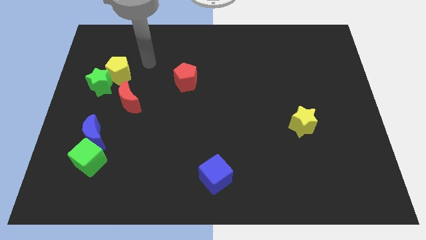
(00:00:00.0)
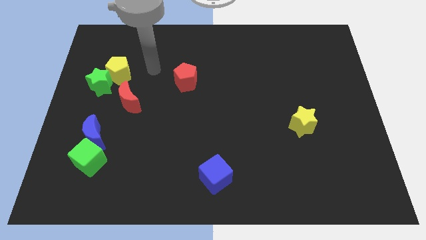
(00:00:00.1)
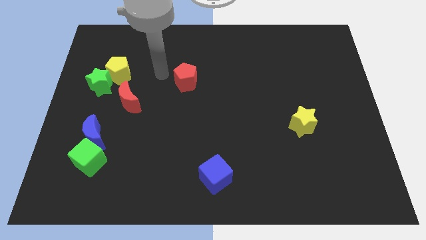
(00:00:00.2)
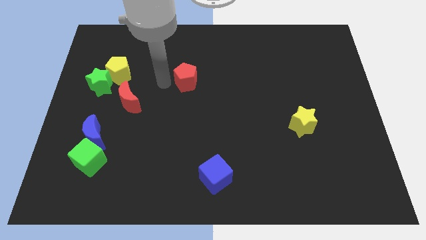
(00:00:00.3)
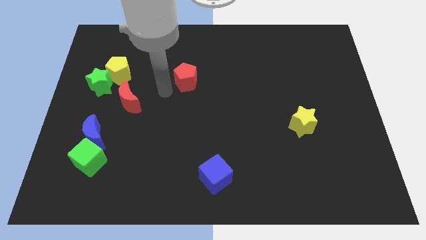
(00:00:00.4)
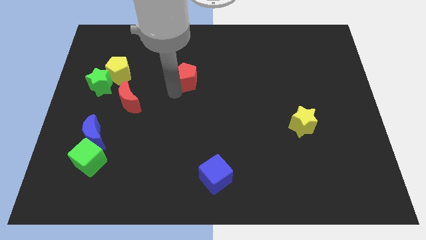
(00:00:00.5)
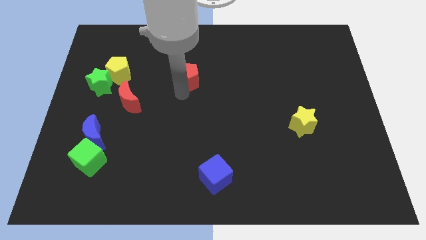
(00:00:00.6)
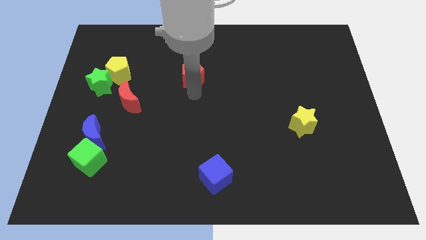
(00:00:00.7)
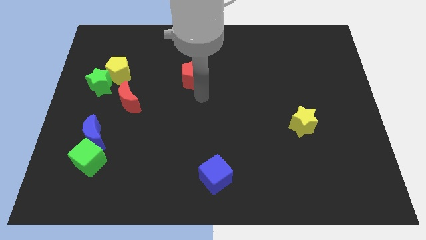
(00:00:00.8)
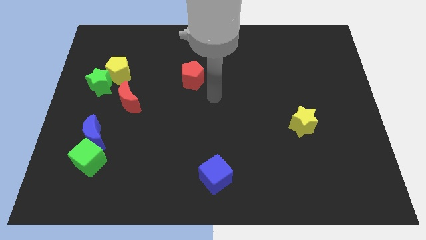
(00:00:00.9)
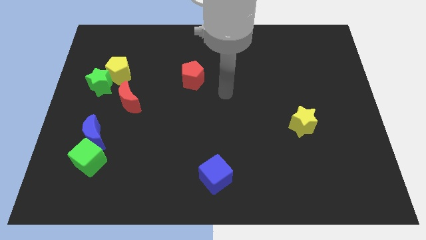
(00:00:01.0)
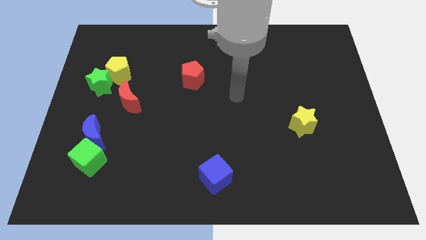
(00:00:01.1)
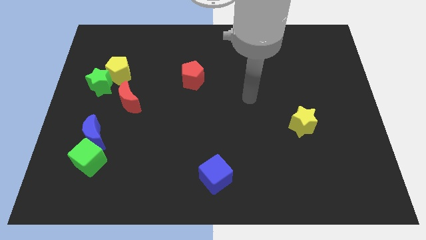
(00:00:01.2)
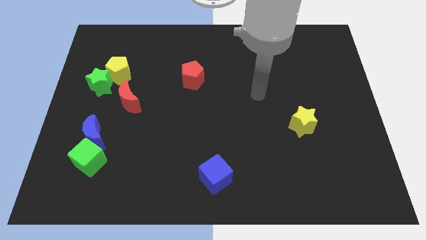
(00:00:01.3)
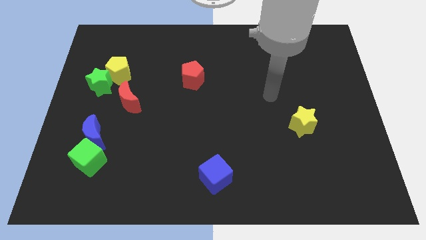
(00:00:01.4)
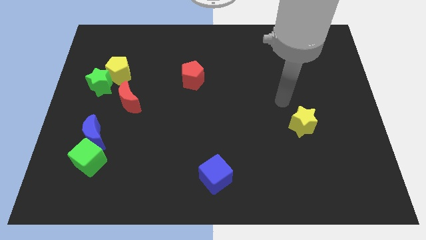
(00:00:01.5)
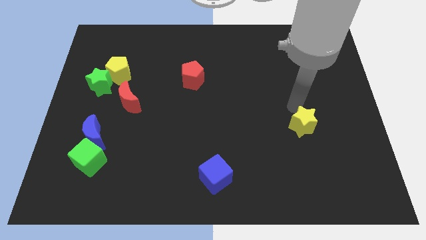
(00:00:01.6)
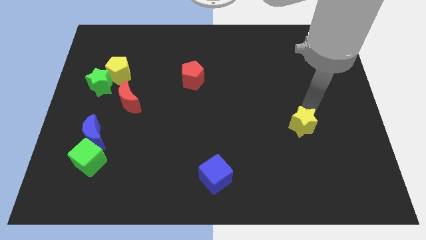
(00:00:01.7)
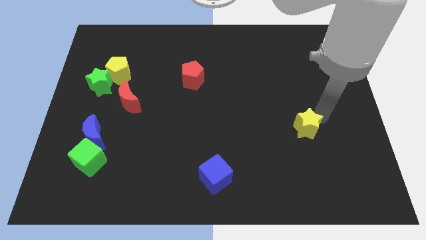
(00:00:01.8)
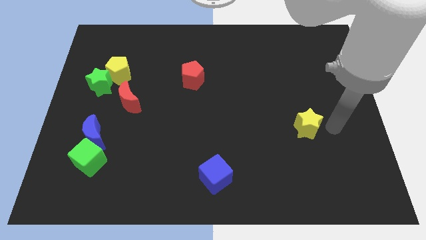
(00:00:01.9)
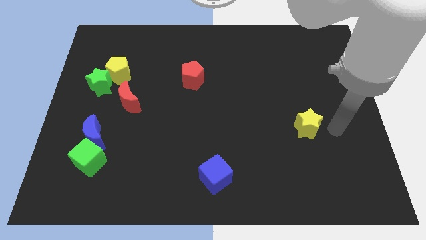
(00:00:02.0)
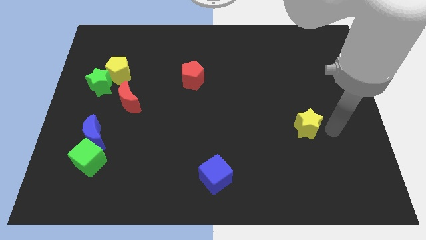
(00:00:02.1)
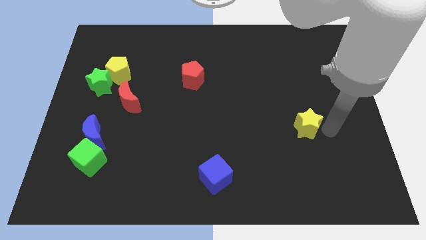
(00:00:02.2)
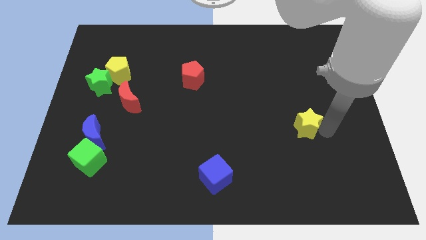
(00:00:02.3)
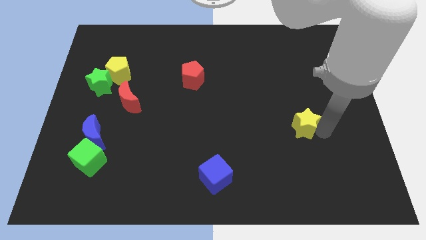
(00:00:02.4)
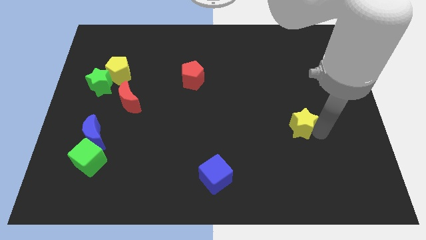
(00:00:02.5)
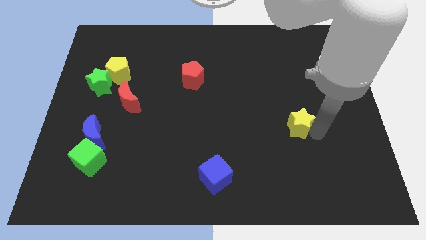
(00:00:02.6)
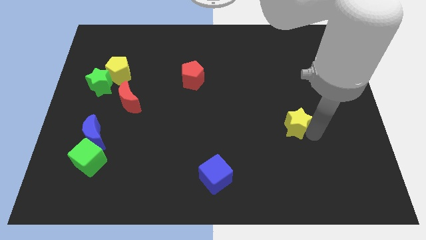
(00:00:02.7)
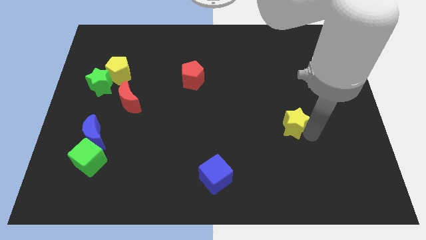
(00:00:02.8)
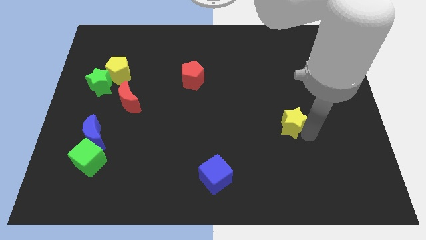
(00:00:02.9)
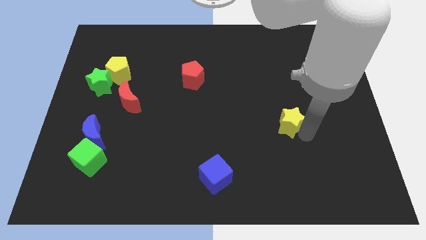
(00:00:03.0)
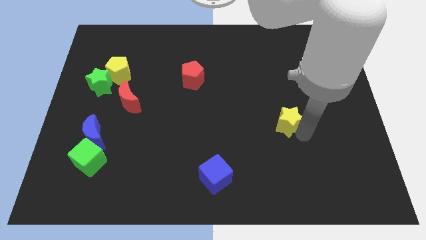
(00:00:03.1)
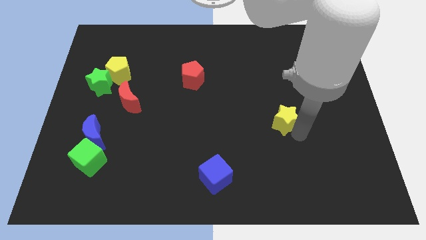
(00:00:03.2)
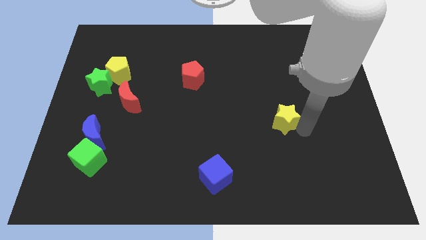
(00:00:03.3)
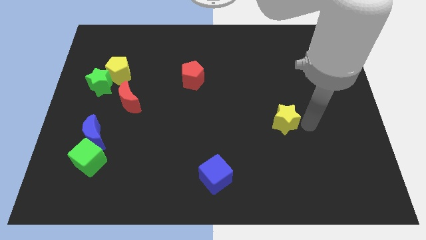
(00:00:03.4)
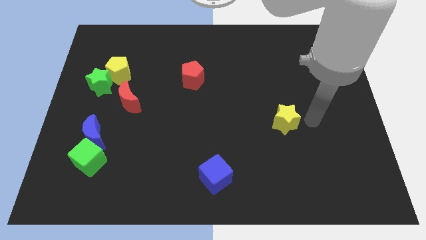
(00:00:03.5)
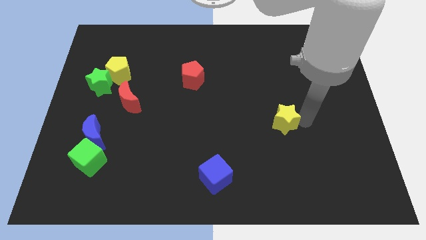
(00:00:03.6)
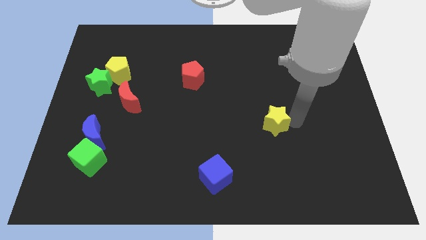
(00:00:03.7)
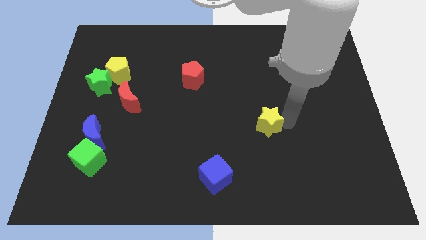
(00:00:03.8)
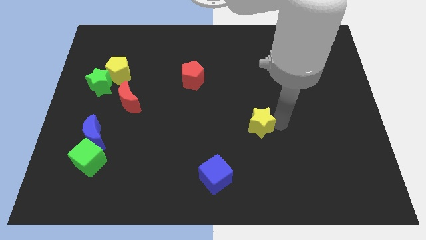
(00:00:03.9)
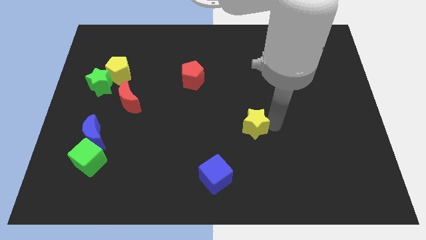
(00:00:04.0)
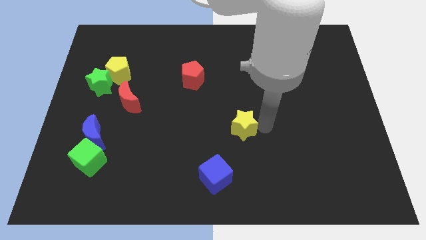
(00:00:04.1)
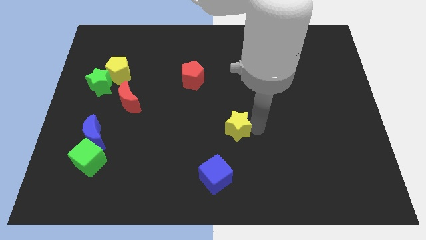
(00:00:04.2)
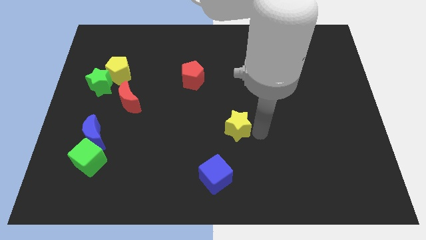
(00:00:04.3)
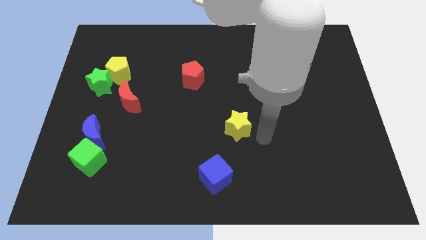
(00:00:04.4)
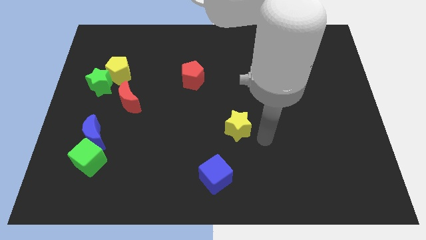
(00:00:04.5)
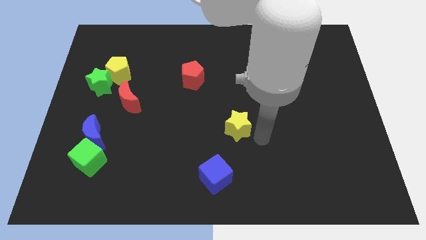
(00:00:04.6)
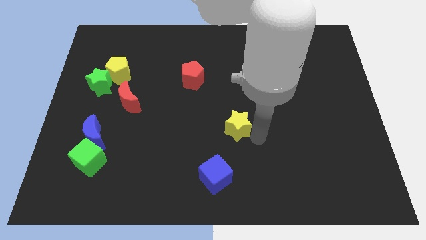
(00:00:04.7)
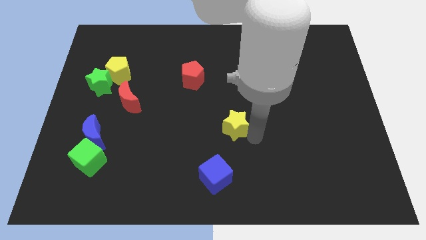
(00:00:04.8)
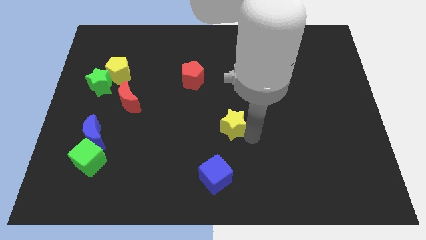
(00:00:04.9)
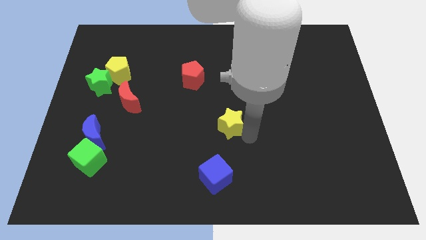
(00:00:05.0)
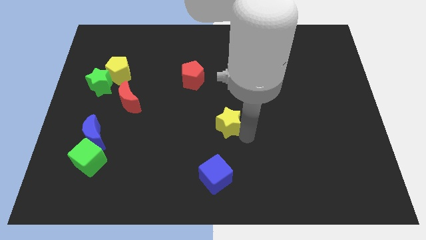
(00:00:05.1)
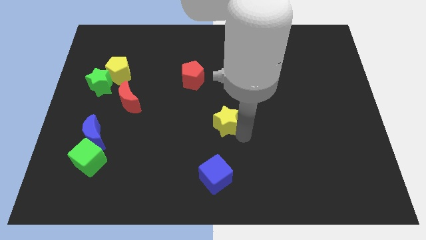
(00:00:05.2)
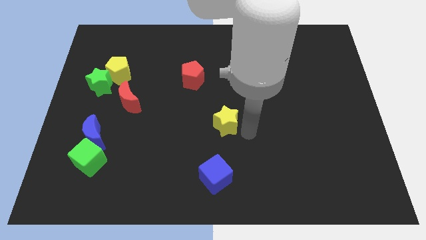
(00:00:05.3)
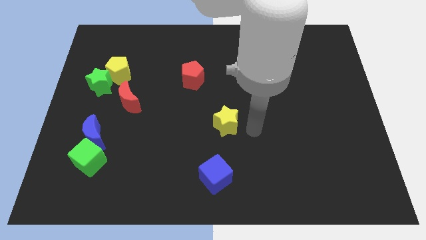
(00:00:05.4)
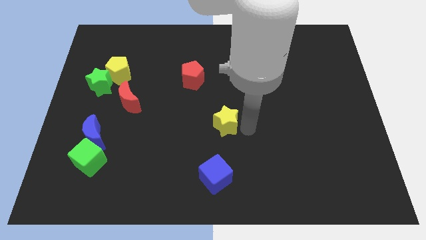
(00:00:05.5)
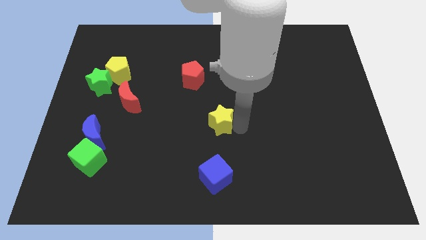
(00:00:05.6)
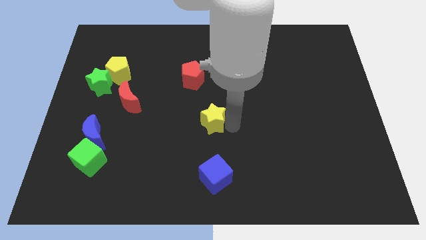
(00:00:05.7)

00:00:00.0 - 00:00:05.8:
push the yellow star to the left

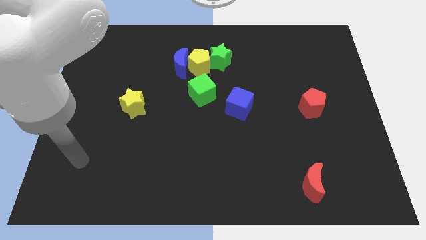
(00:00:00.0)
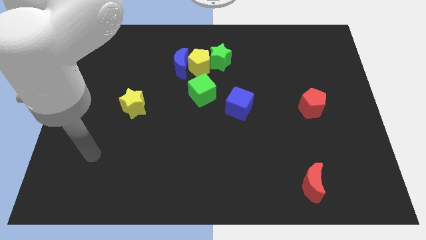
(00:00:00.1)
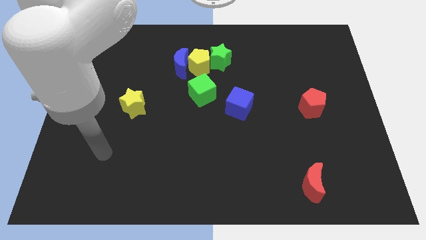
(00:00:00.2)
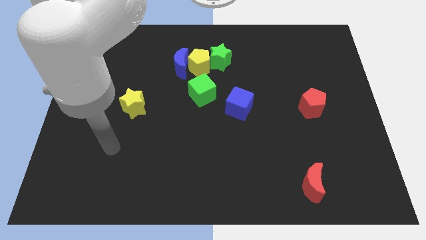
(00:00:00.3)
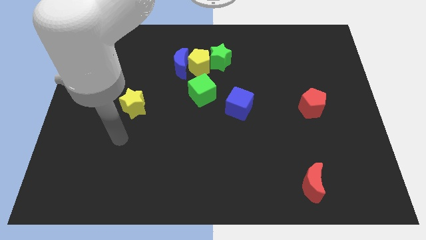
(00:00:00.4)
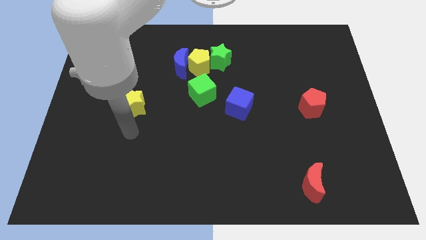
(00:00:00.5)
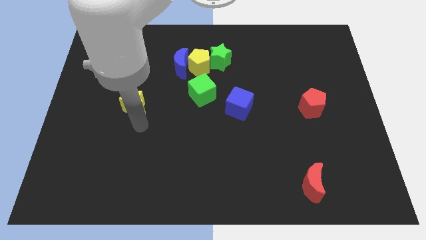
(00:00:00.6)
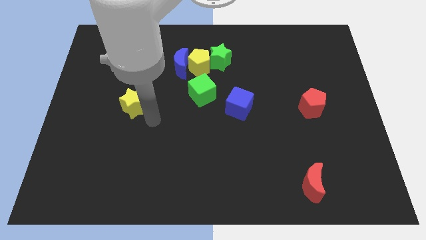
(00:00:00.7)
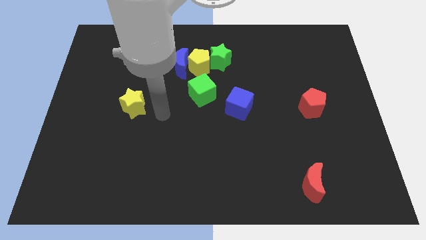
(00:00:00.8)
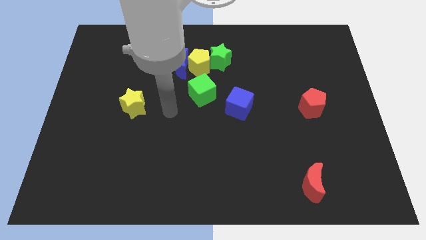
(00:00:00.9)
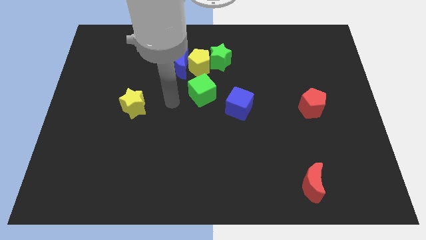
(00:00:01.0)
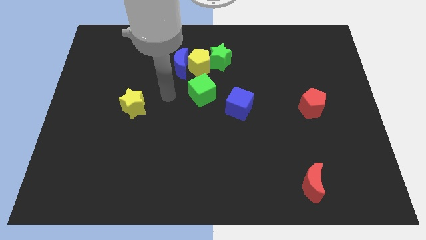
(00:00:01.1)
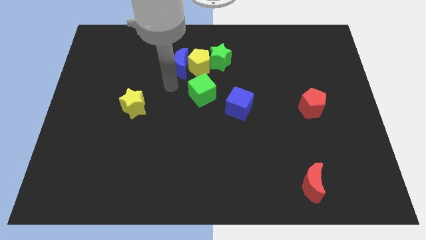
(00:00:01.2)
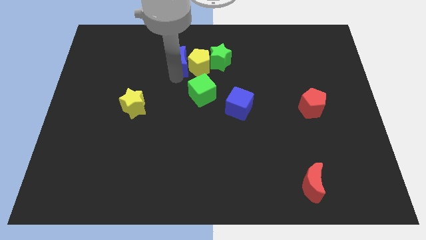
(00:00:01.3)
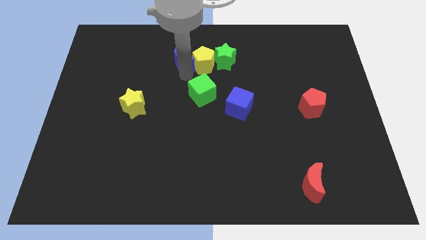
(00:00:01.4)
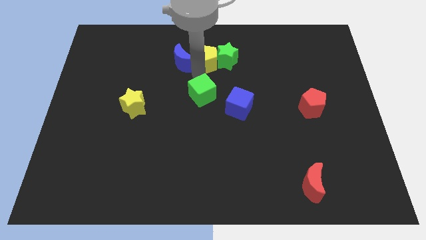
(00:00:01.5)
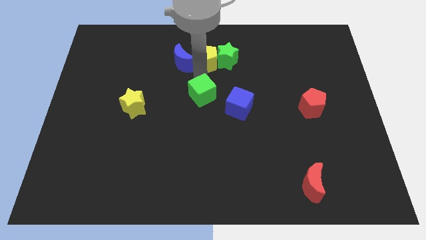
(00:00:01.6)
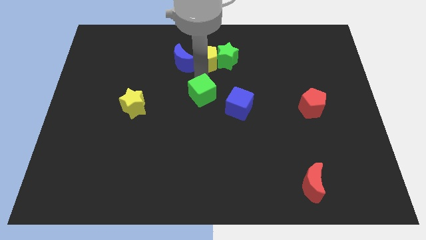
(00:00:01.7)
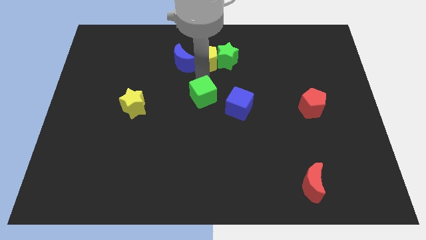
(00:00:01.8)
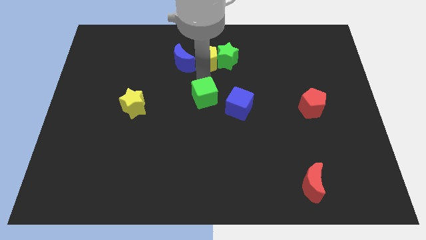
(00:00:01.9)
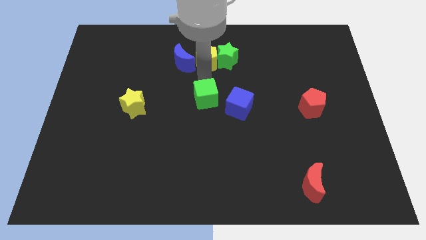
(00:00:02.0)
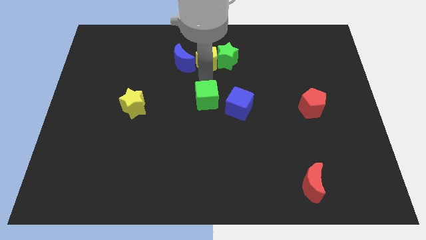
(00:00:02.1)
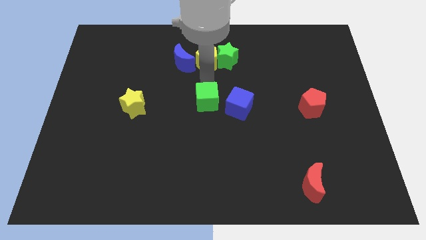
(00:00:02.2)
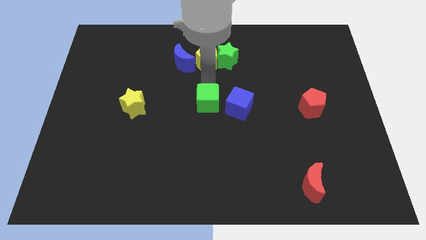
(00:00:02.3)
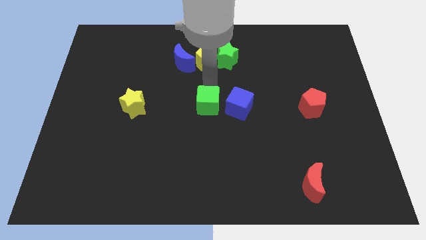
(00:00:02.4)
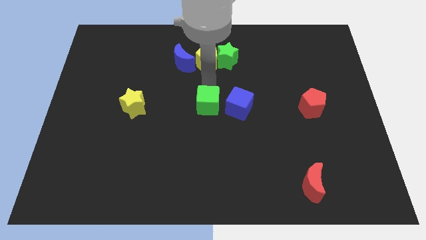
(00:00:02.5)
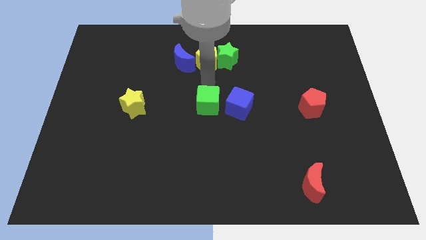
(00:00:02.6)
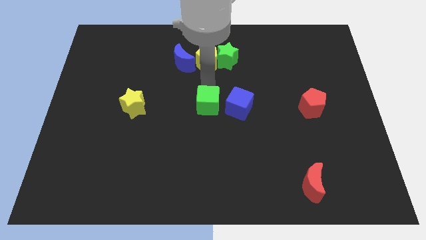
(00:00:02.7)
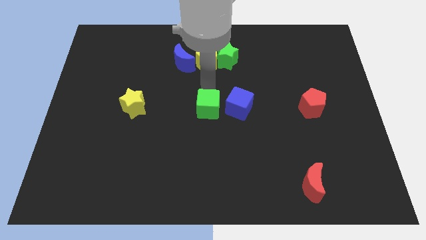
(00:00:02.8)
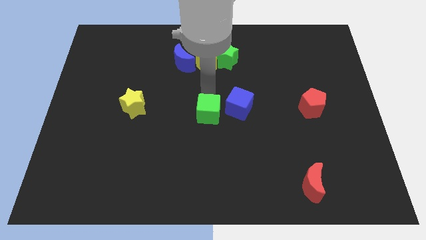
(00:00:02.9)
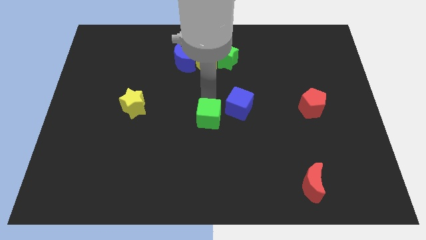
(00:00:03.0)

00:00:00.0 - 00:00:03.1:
move the green cube slightly downwards
